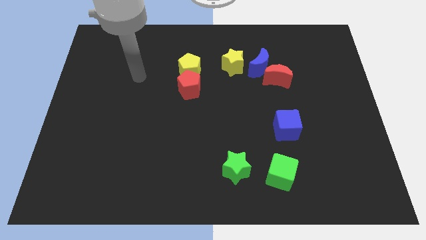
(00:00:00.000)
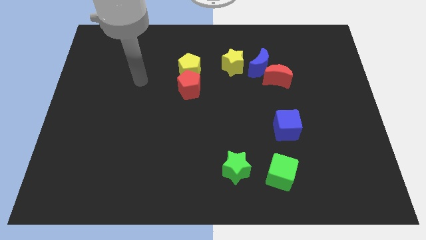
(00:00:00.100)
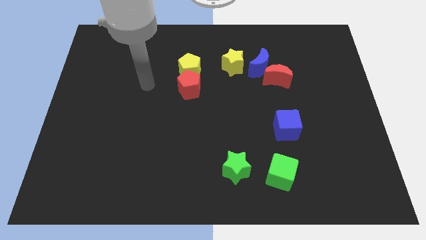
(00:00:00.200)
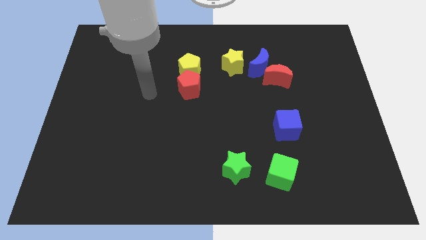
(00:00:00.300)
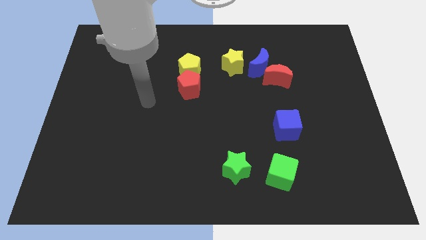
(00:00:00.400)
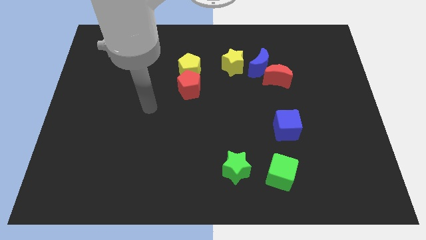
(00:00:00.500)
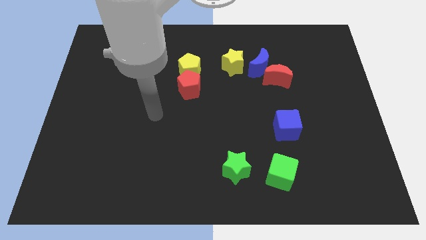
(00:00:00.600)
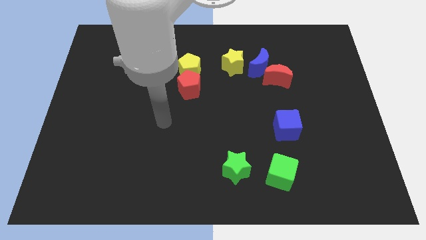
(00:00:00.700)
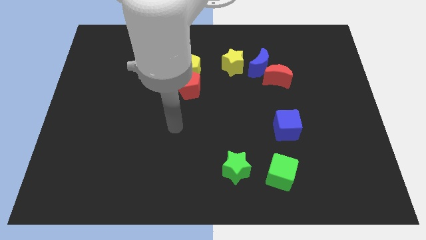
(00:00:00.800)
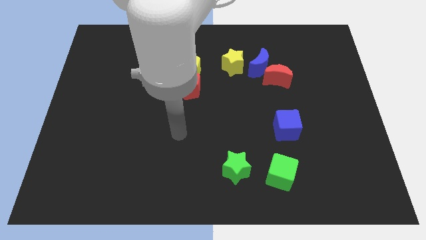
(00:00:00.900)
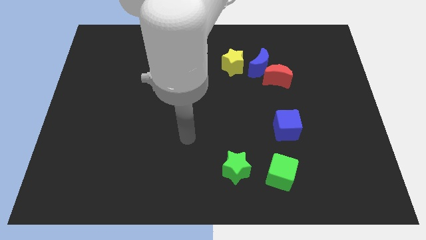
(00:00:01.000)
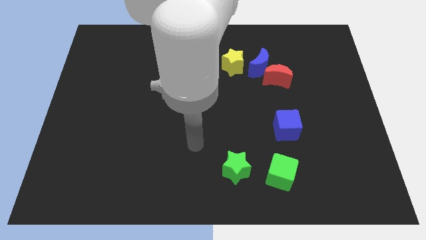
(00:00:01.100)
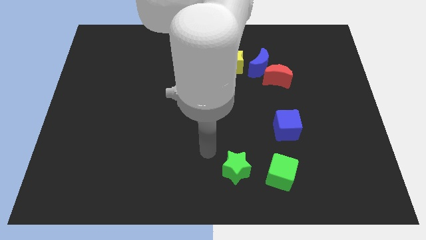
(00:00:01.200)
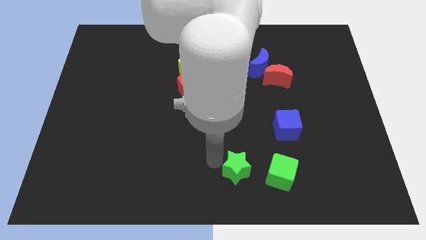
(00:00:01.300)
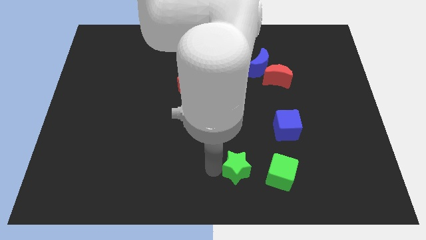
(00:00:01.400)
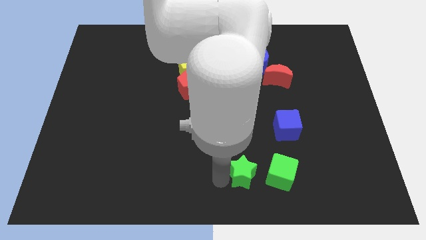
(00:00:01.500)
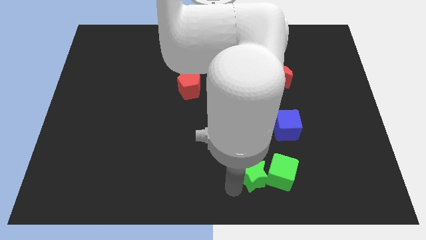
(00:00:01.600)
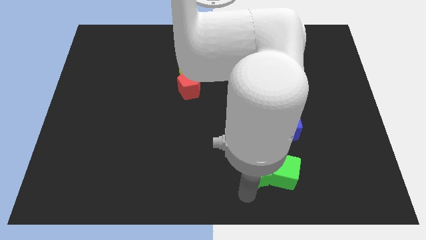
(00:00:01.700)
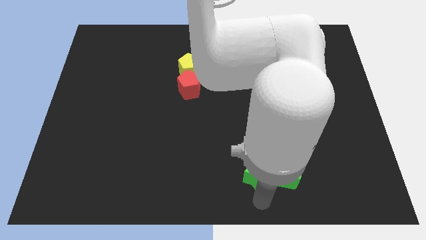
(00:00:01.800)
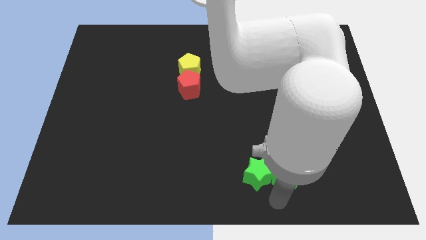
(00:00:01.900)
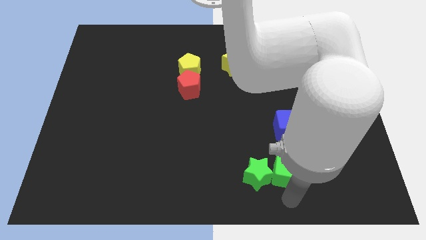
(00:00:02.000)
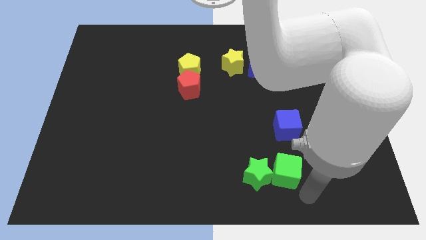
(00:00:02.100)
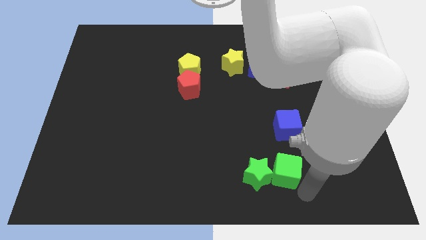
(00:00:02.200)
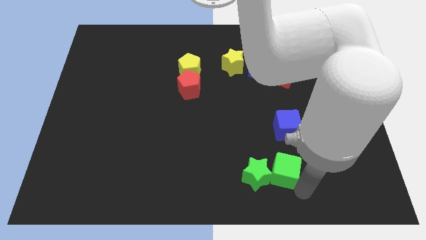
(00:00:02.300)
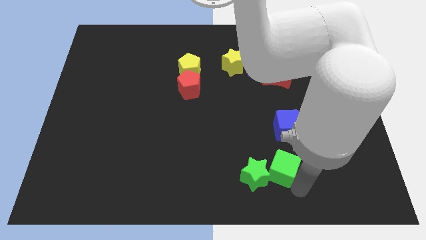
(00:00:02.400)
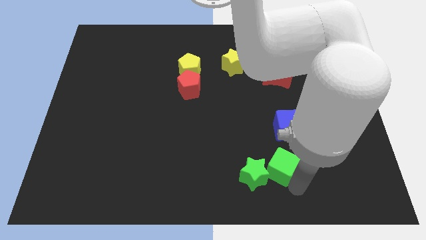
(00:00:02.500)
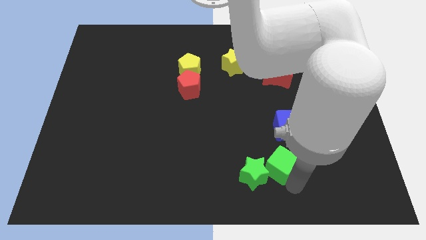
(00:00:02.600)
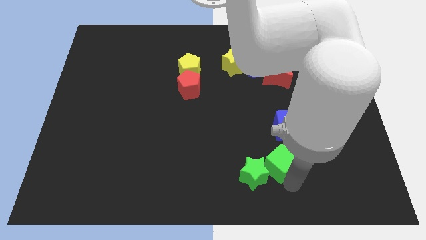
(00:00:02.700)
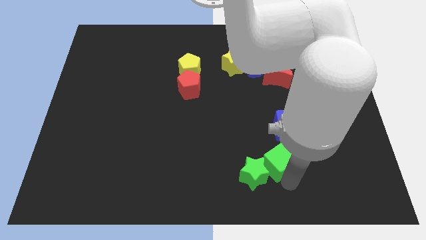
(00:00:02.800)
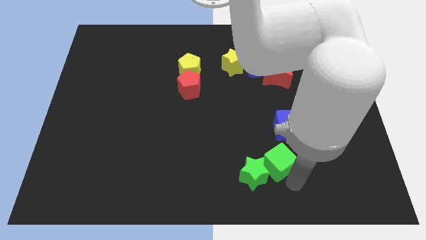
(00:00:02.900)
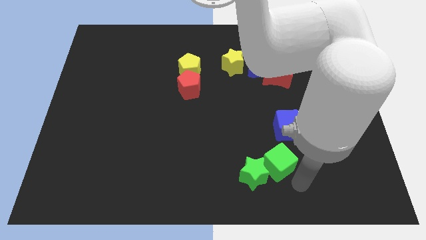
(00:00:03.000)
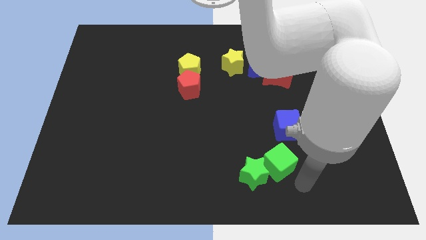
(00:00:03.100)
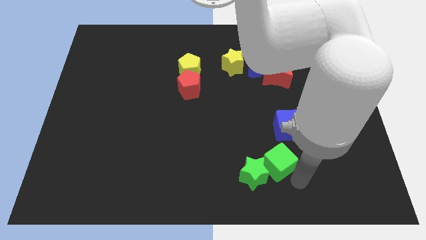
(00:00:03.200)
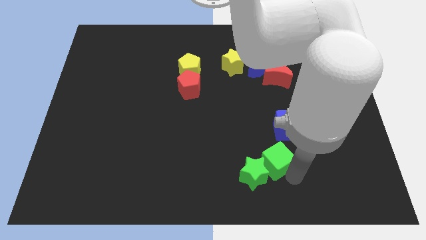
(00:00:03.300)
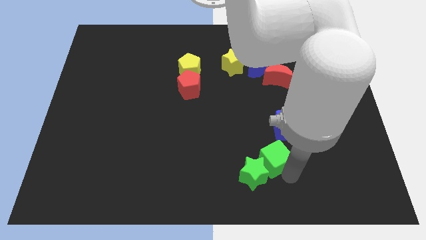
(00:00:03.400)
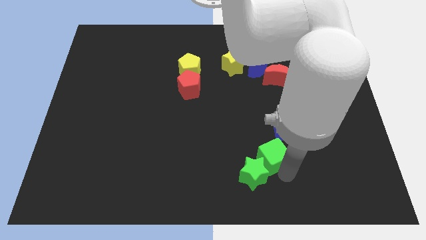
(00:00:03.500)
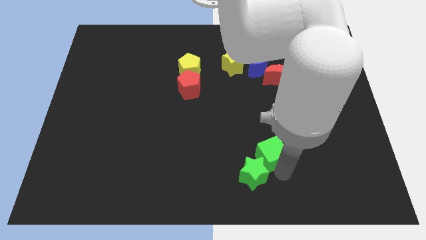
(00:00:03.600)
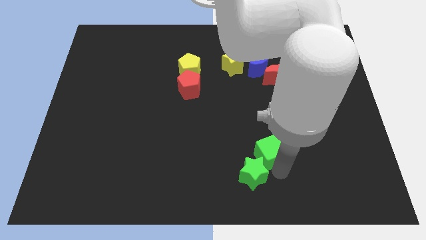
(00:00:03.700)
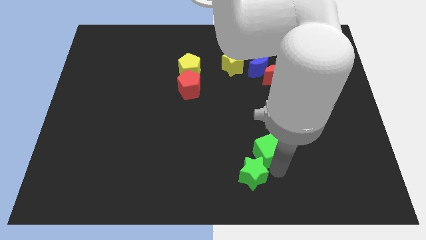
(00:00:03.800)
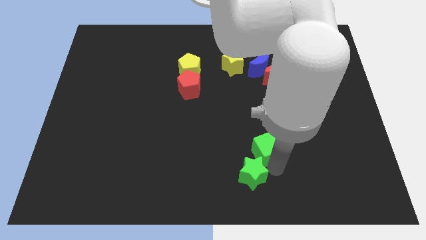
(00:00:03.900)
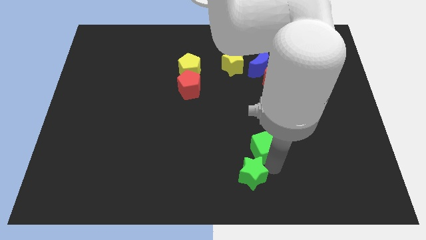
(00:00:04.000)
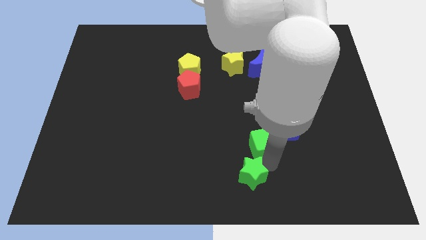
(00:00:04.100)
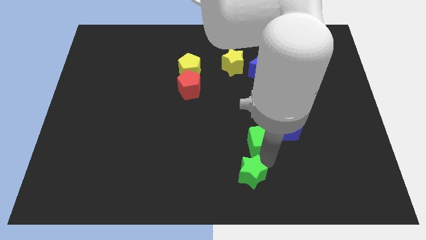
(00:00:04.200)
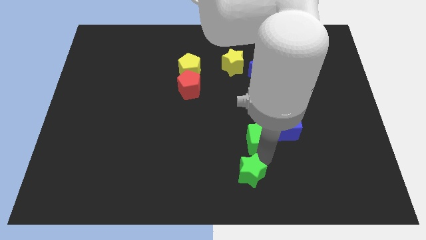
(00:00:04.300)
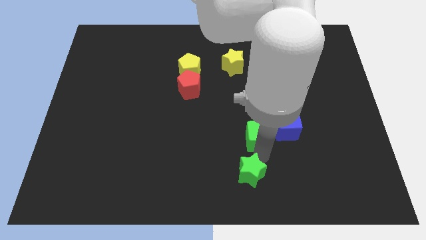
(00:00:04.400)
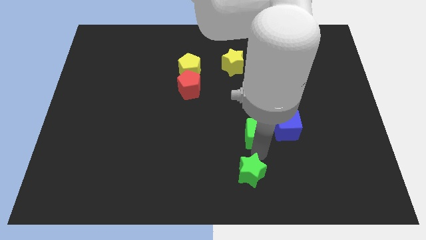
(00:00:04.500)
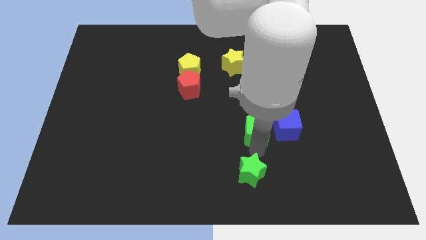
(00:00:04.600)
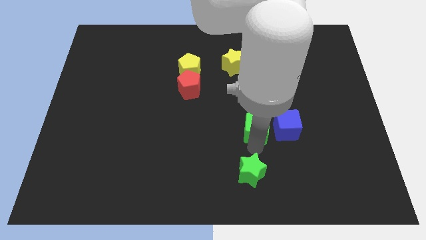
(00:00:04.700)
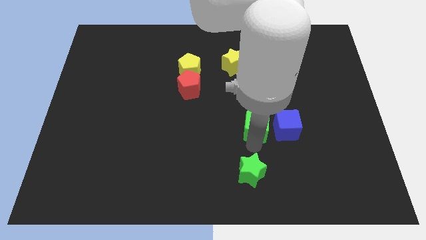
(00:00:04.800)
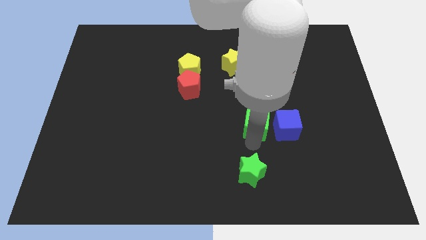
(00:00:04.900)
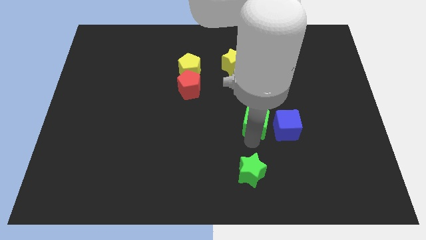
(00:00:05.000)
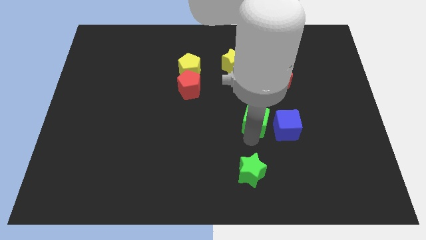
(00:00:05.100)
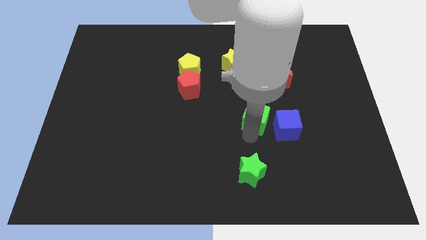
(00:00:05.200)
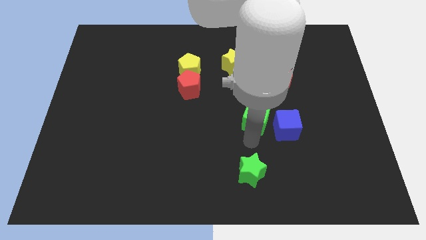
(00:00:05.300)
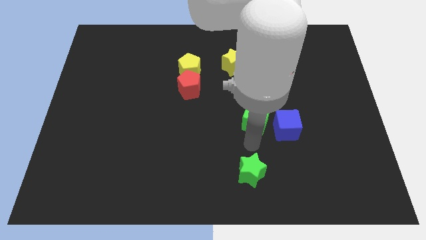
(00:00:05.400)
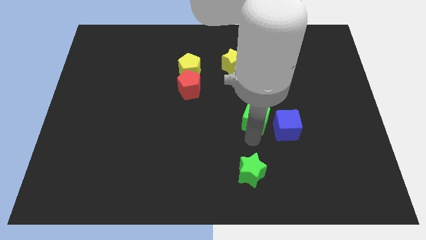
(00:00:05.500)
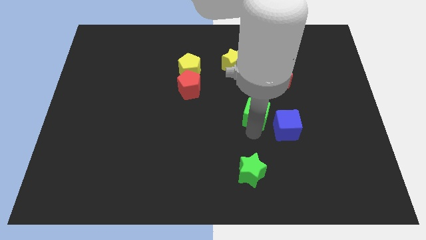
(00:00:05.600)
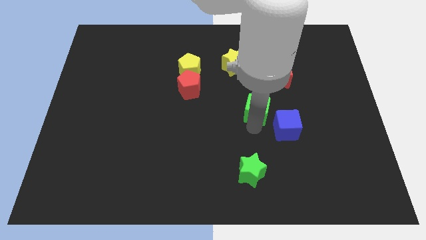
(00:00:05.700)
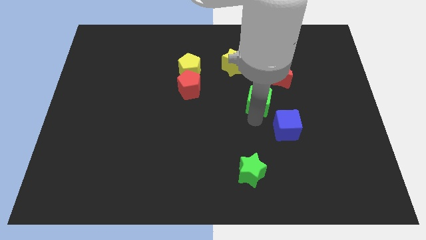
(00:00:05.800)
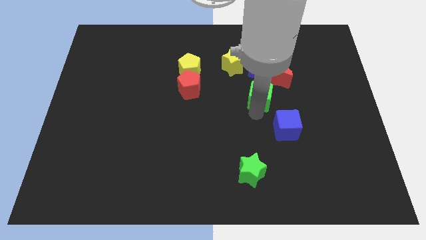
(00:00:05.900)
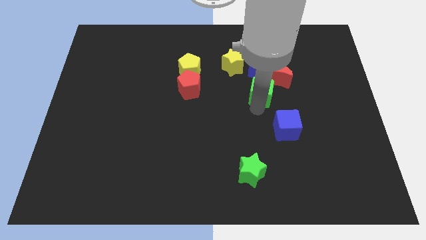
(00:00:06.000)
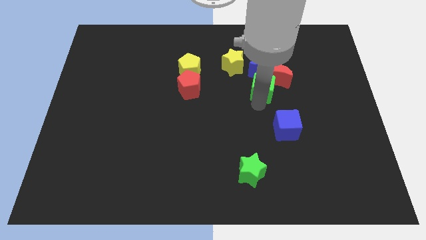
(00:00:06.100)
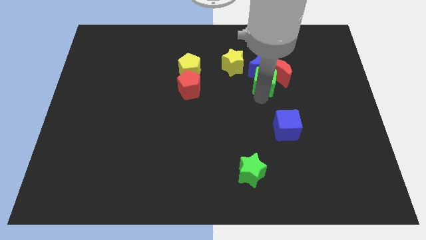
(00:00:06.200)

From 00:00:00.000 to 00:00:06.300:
move the green cube towards the blue moon
